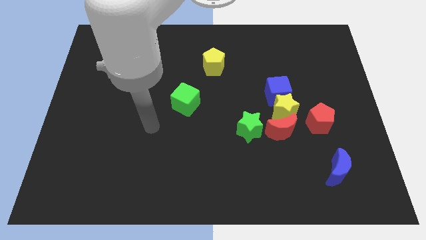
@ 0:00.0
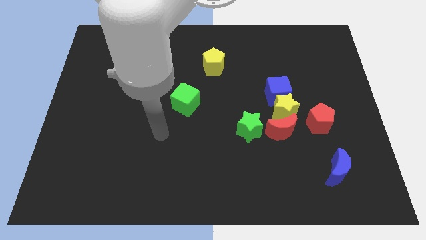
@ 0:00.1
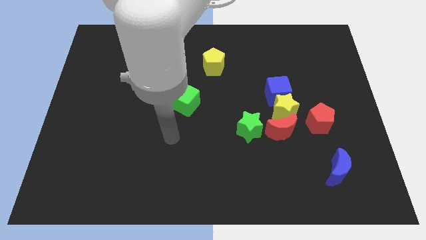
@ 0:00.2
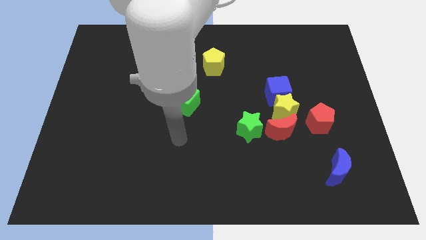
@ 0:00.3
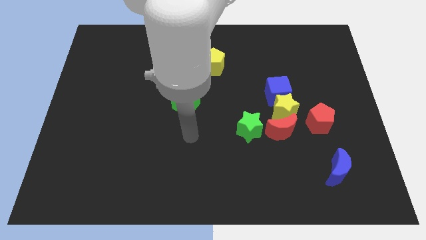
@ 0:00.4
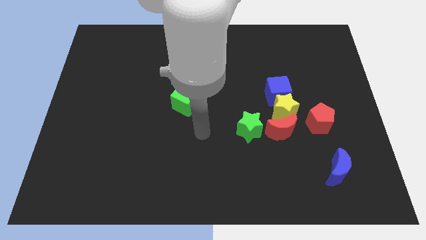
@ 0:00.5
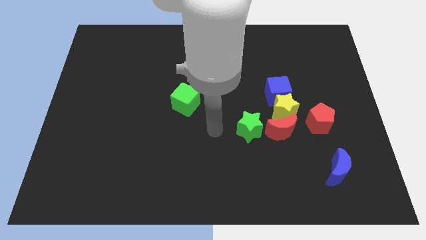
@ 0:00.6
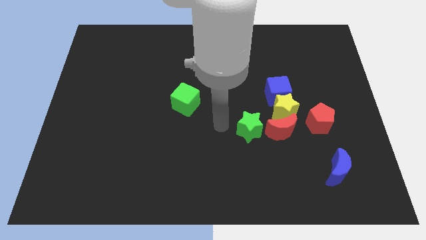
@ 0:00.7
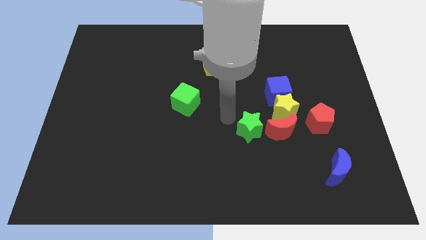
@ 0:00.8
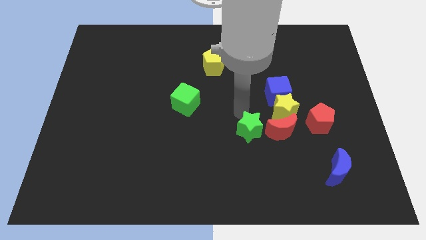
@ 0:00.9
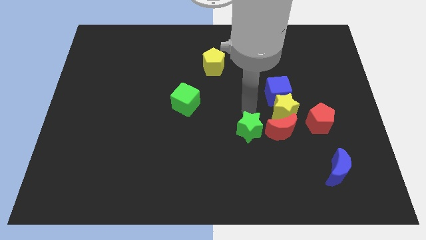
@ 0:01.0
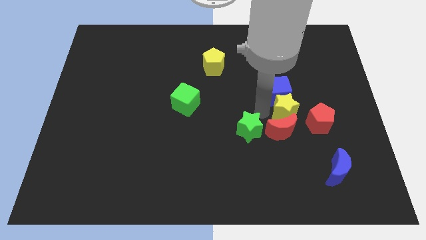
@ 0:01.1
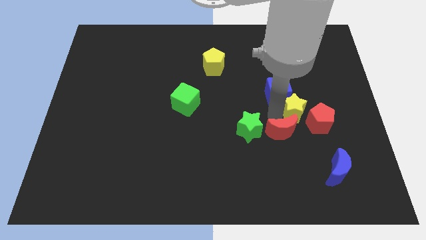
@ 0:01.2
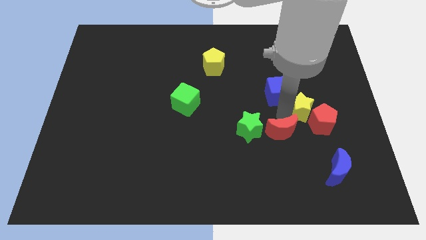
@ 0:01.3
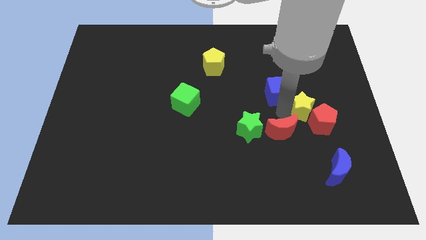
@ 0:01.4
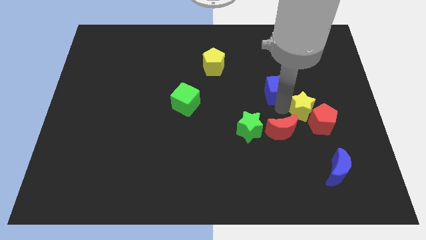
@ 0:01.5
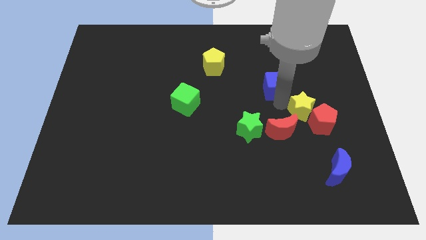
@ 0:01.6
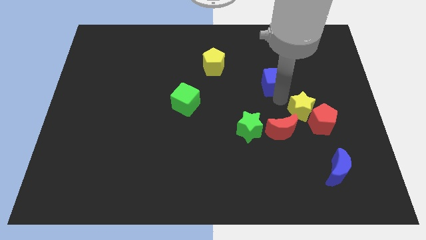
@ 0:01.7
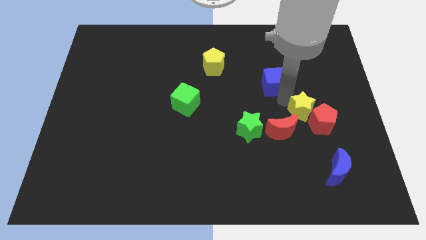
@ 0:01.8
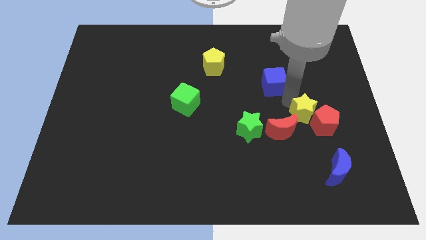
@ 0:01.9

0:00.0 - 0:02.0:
separate the blue cube from the yellow star

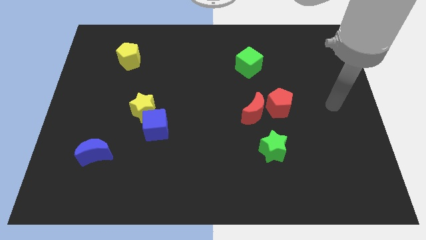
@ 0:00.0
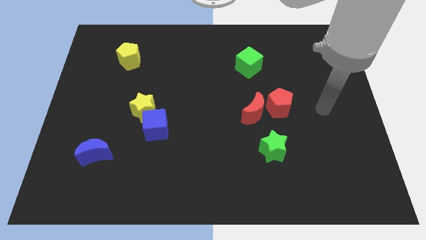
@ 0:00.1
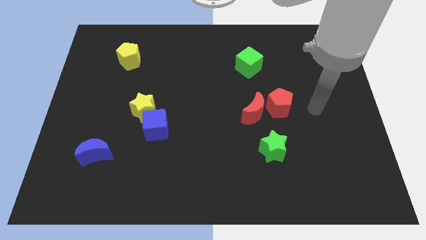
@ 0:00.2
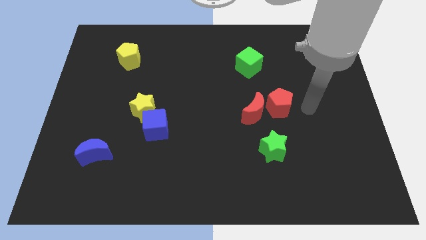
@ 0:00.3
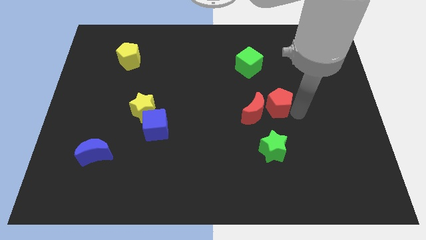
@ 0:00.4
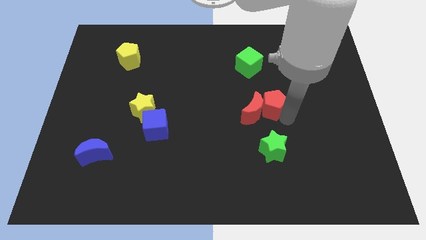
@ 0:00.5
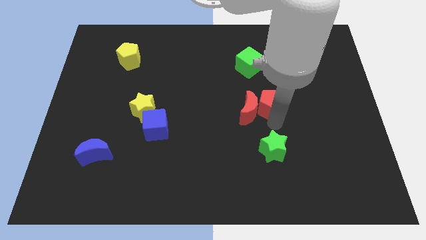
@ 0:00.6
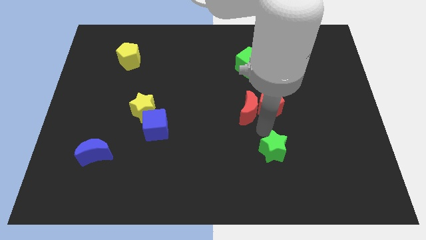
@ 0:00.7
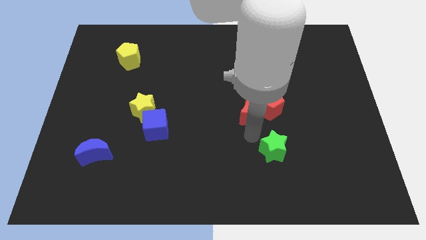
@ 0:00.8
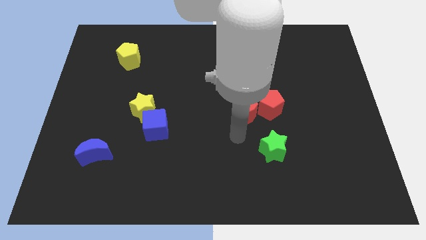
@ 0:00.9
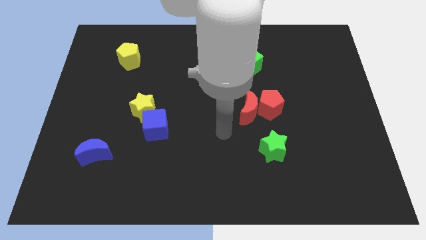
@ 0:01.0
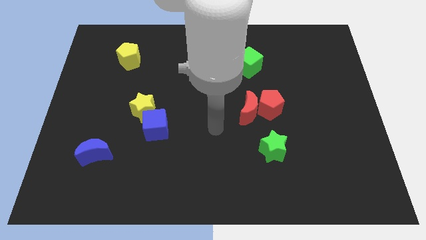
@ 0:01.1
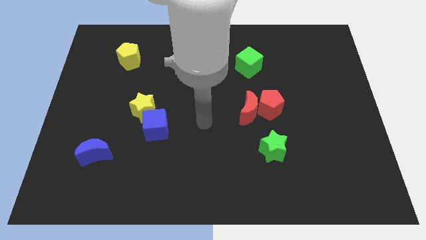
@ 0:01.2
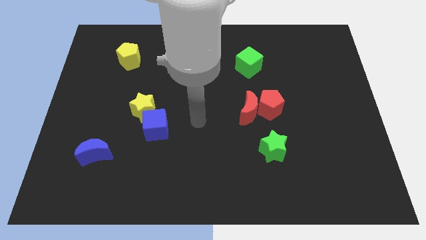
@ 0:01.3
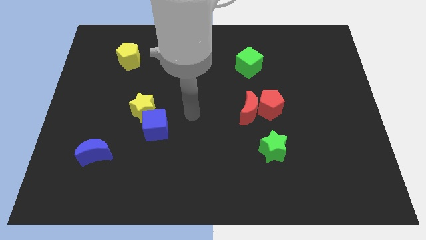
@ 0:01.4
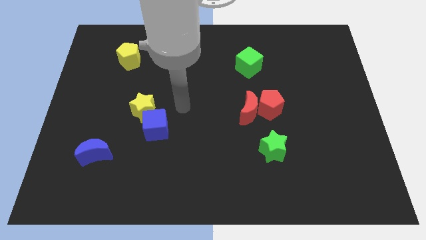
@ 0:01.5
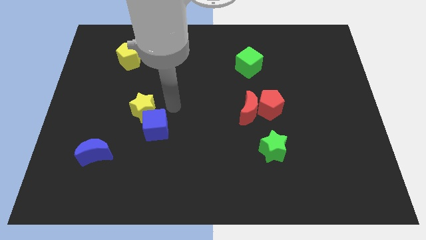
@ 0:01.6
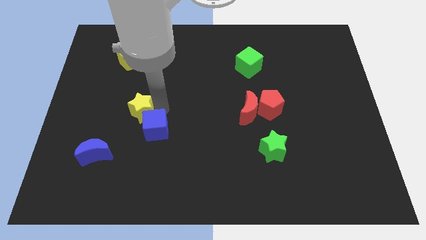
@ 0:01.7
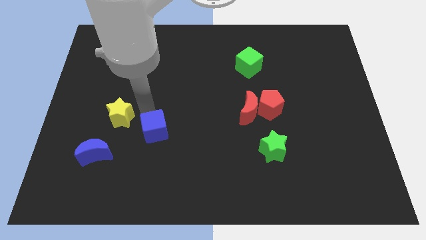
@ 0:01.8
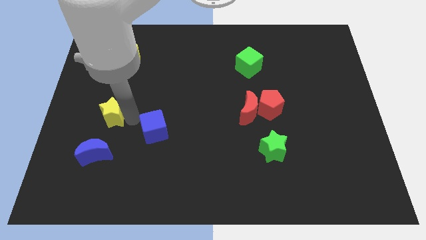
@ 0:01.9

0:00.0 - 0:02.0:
move the blue cube away from the yellow star

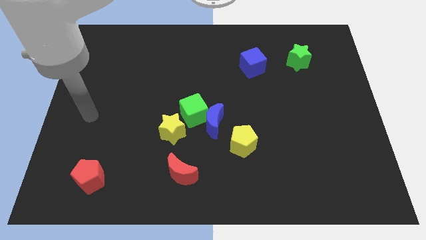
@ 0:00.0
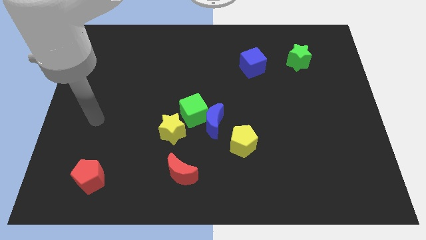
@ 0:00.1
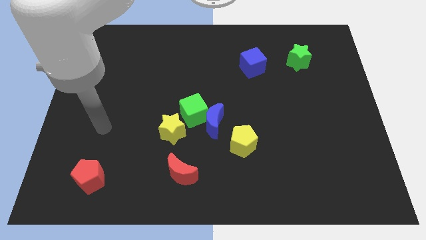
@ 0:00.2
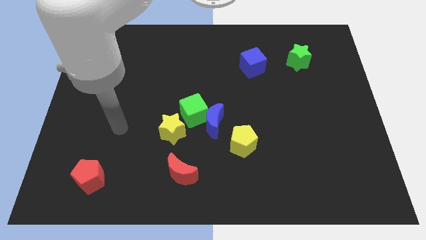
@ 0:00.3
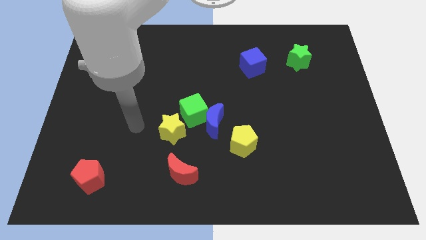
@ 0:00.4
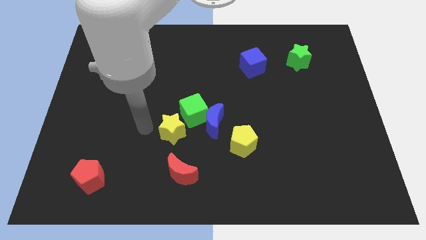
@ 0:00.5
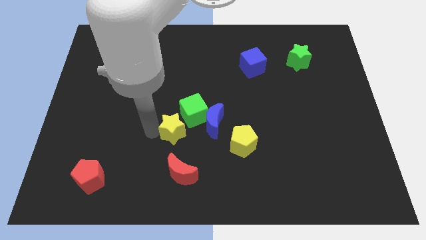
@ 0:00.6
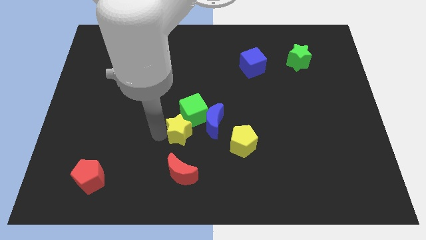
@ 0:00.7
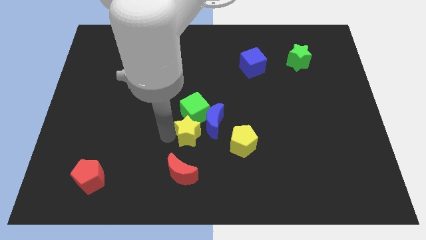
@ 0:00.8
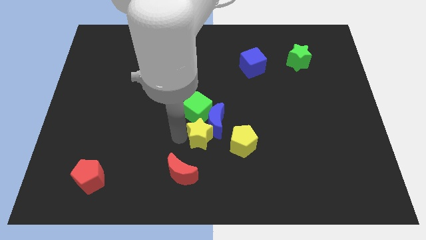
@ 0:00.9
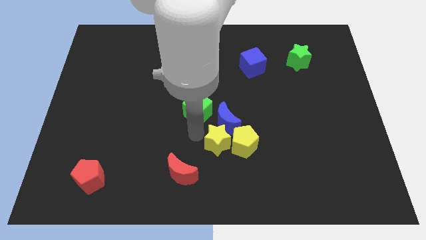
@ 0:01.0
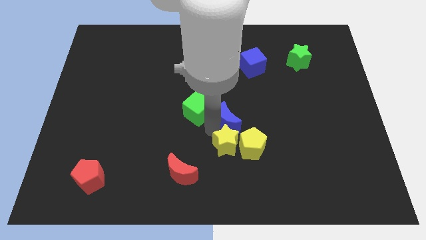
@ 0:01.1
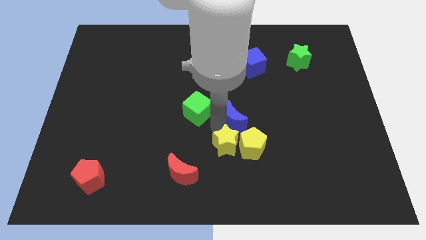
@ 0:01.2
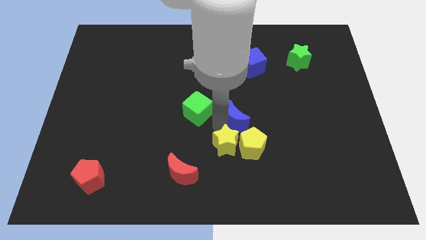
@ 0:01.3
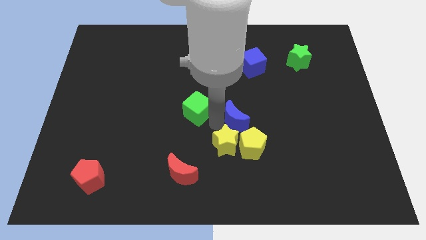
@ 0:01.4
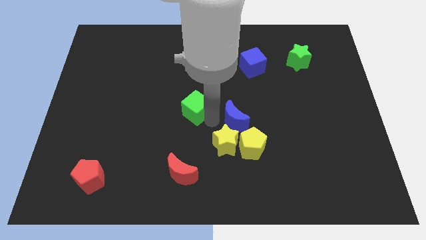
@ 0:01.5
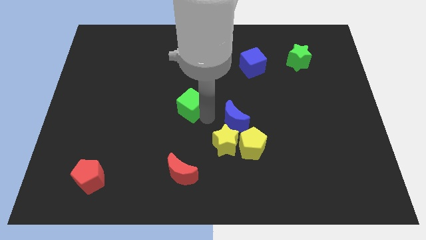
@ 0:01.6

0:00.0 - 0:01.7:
separate the green cube from the blue moon and yellow star

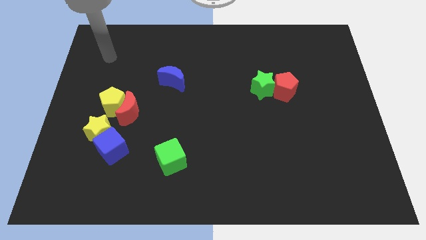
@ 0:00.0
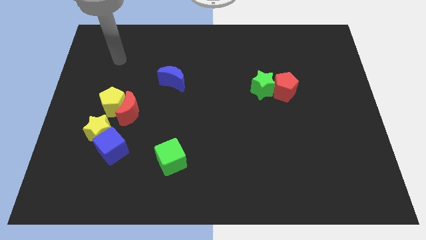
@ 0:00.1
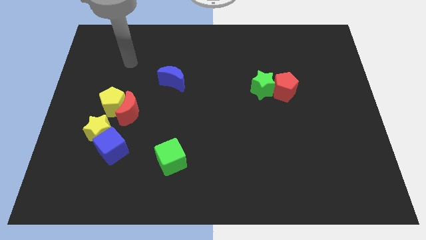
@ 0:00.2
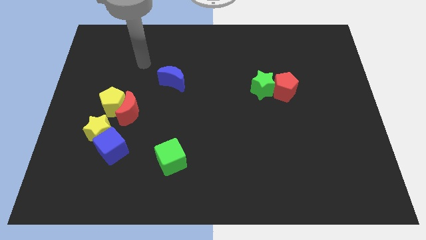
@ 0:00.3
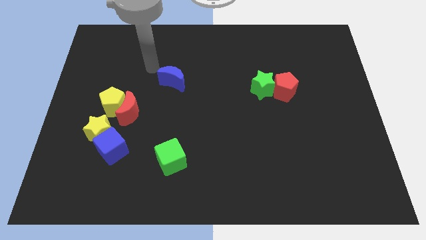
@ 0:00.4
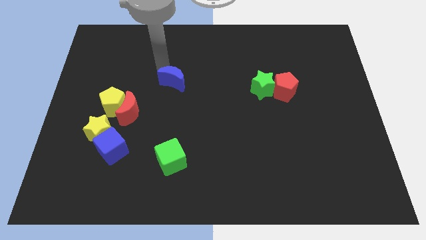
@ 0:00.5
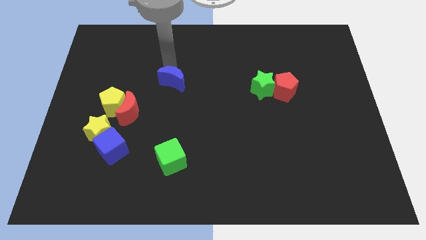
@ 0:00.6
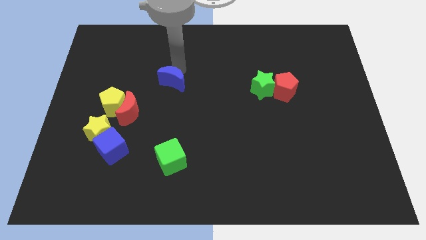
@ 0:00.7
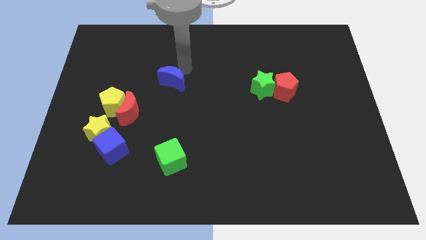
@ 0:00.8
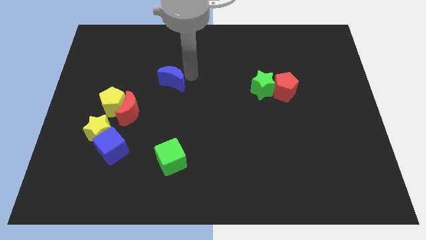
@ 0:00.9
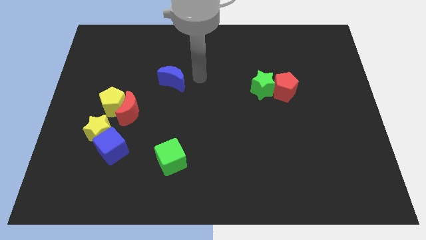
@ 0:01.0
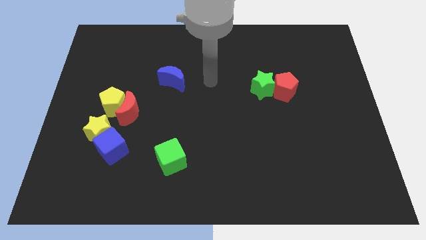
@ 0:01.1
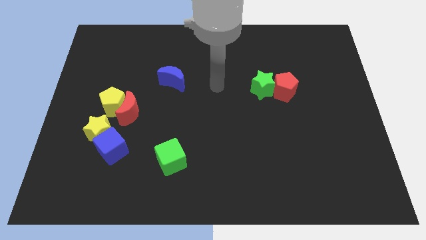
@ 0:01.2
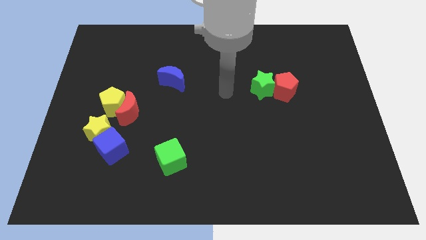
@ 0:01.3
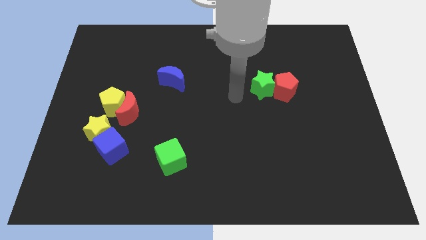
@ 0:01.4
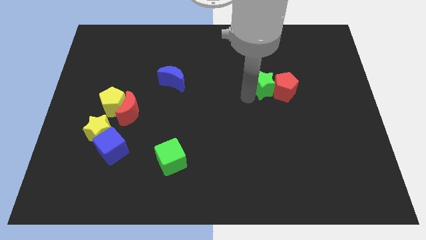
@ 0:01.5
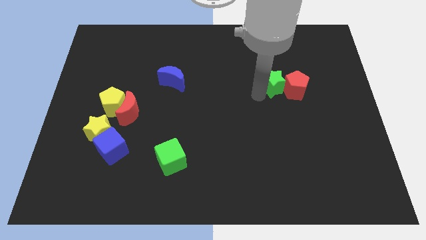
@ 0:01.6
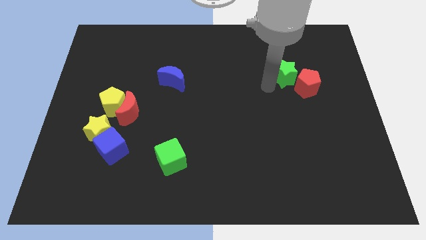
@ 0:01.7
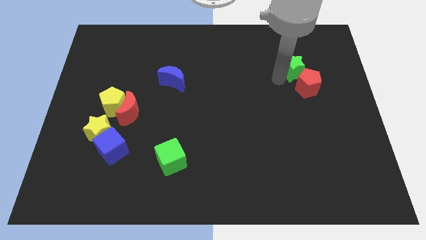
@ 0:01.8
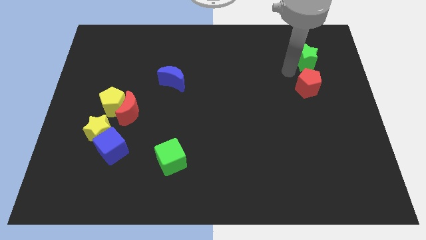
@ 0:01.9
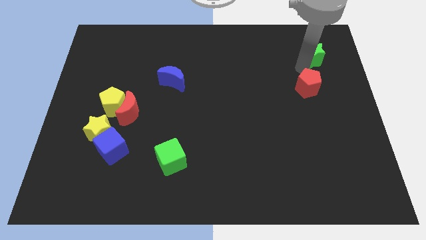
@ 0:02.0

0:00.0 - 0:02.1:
pull the red pentagon apart from the green star

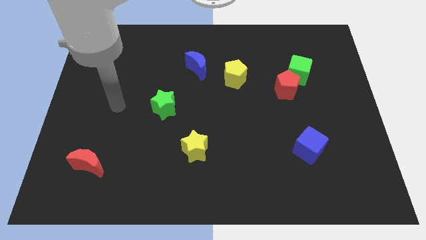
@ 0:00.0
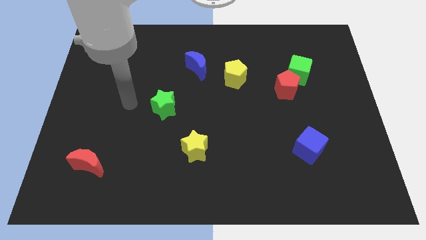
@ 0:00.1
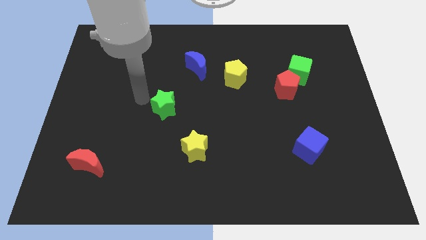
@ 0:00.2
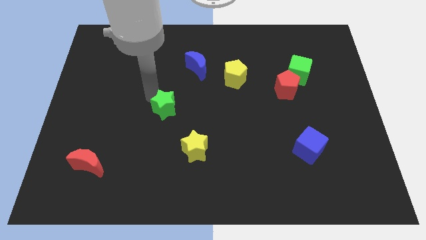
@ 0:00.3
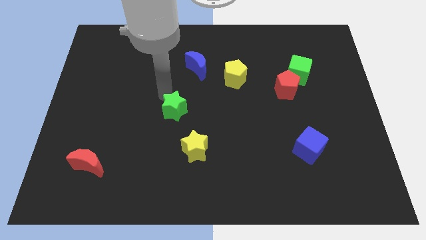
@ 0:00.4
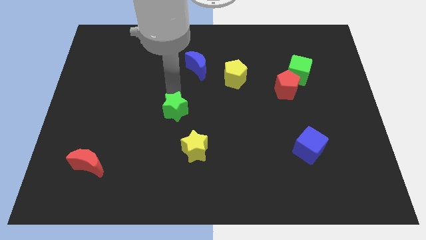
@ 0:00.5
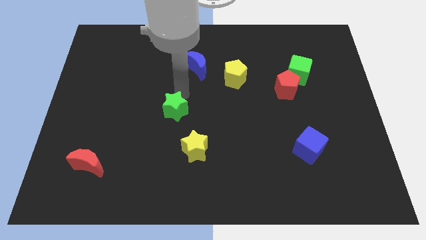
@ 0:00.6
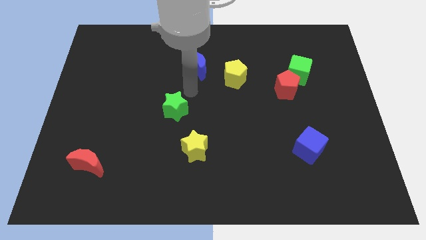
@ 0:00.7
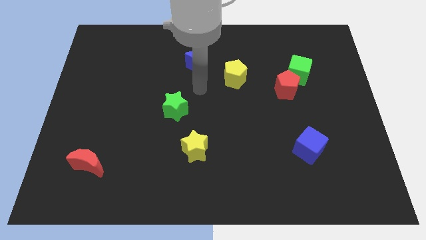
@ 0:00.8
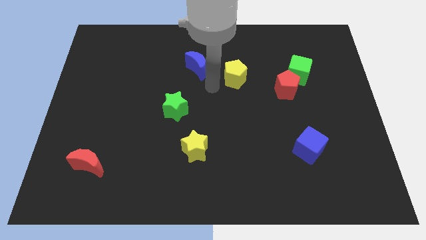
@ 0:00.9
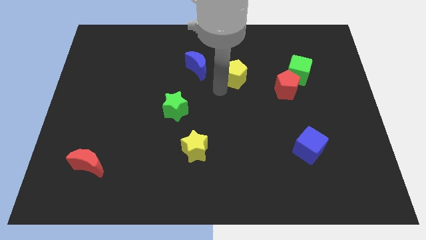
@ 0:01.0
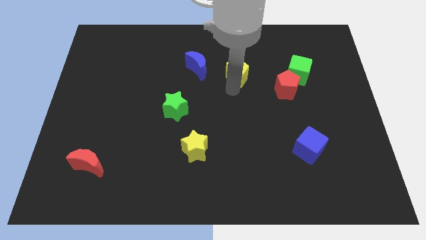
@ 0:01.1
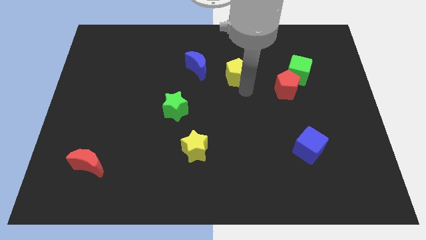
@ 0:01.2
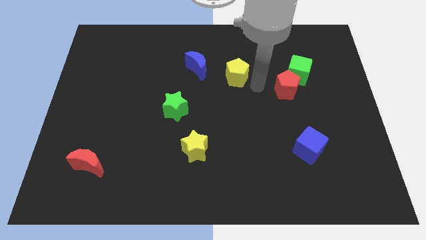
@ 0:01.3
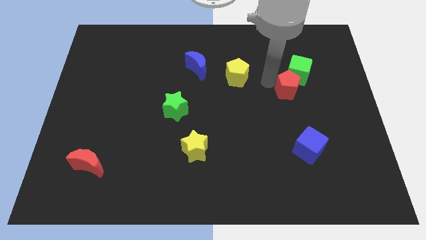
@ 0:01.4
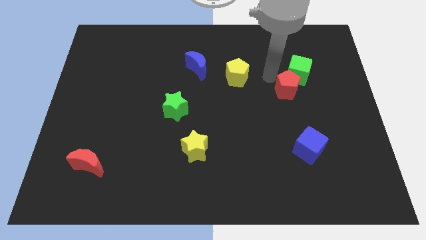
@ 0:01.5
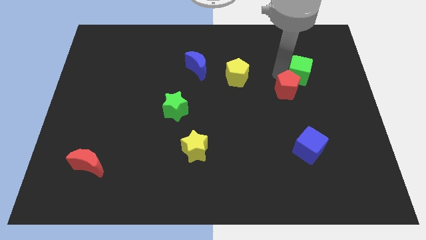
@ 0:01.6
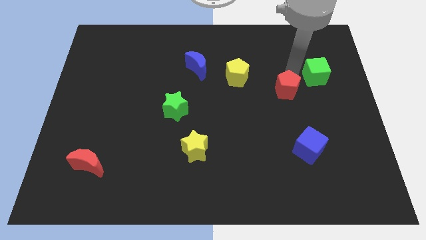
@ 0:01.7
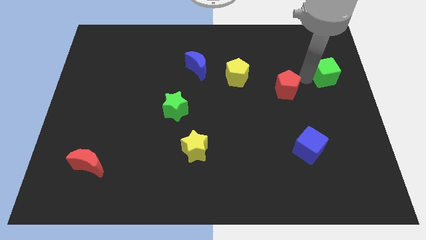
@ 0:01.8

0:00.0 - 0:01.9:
move the red pentagon away from the green cube
